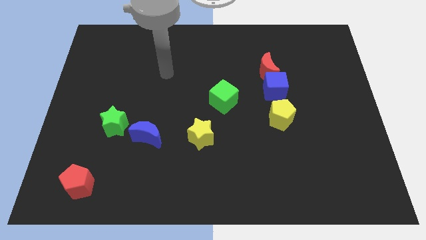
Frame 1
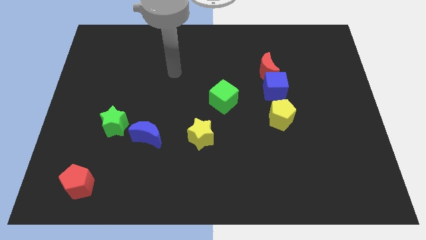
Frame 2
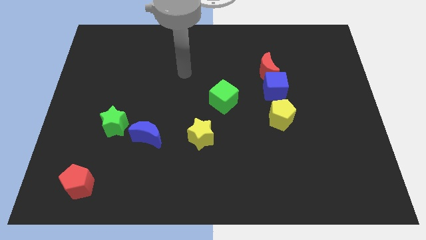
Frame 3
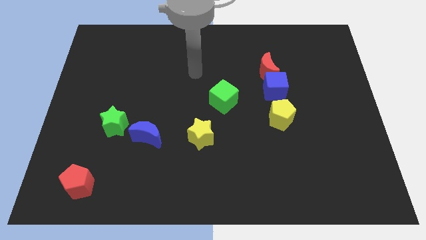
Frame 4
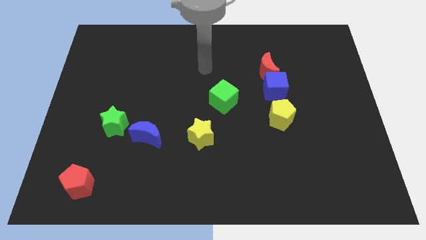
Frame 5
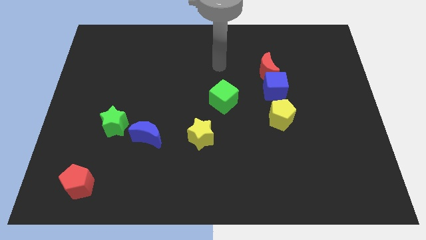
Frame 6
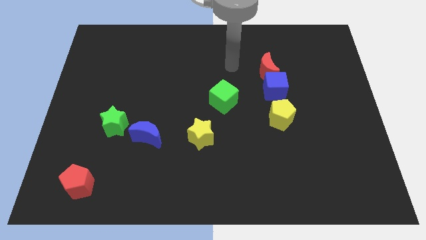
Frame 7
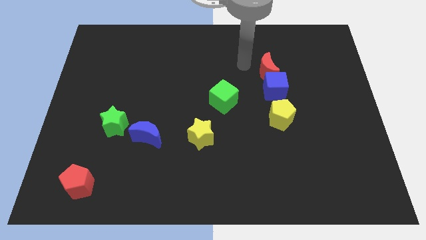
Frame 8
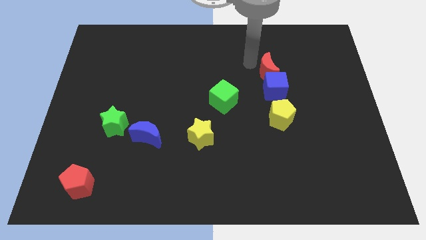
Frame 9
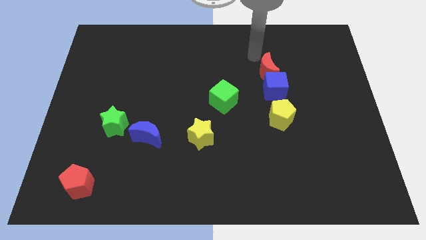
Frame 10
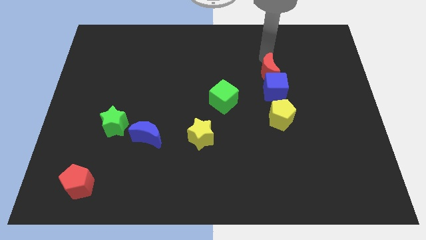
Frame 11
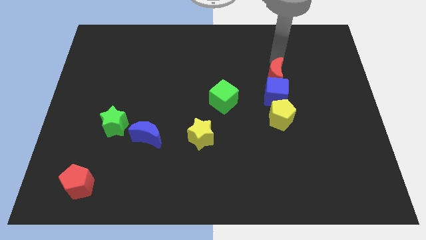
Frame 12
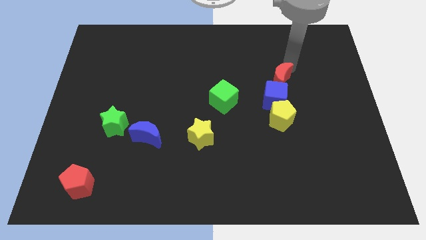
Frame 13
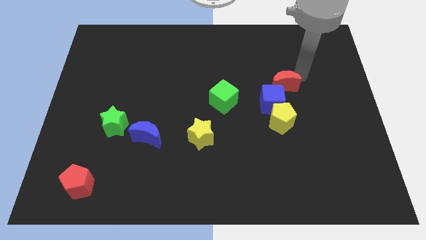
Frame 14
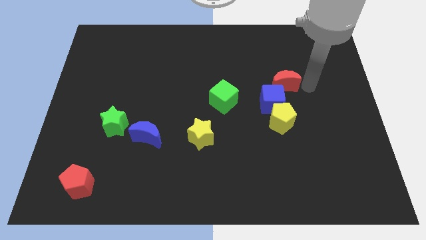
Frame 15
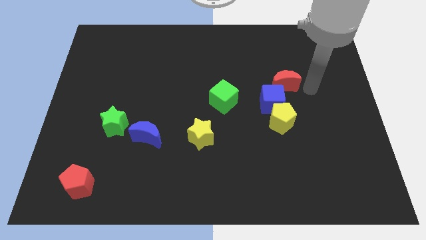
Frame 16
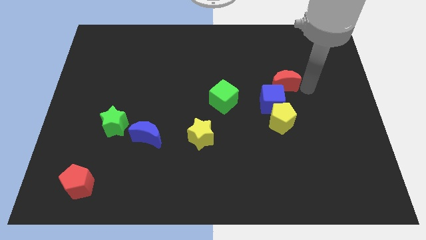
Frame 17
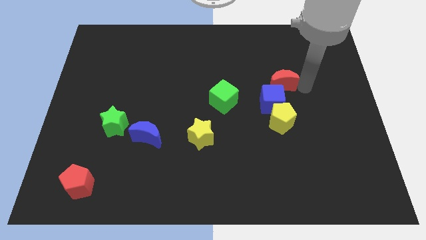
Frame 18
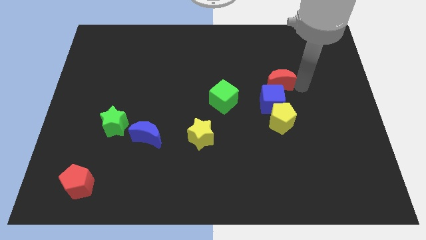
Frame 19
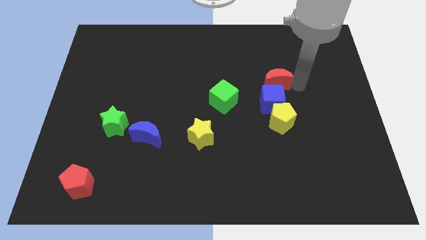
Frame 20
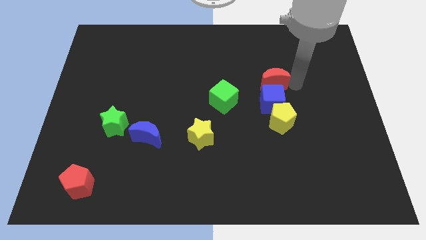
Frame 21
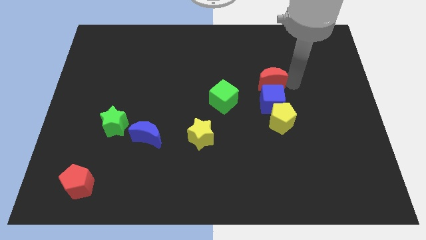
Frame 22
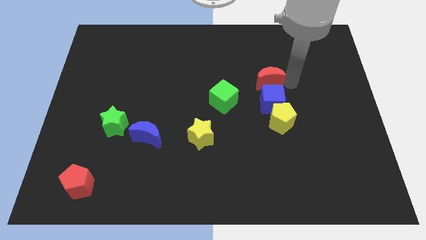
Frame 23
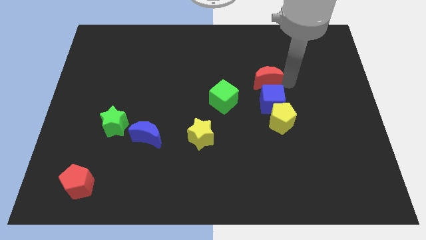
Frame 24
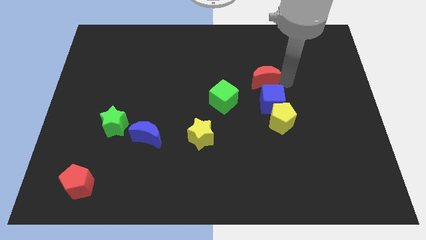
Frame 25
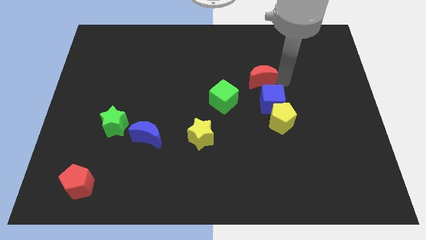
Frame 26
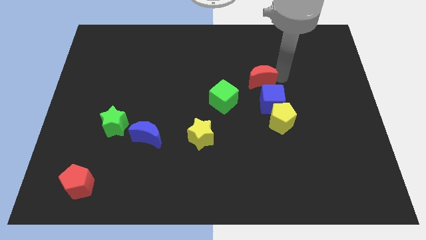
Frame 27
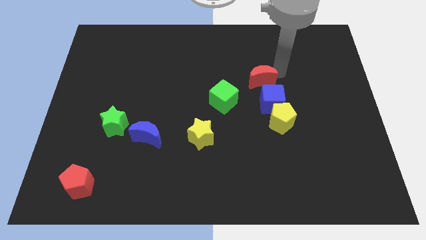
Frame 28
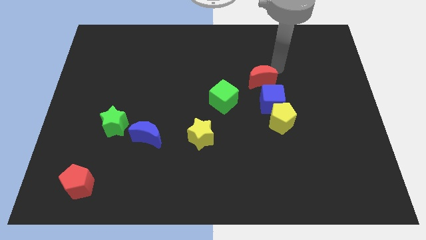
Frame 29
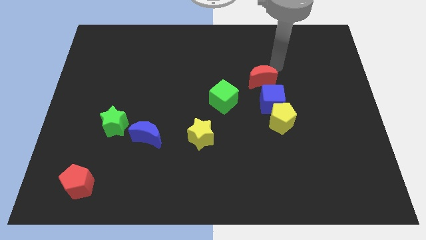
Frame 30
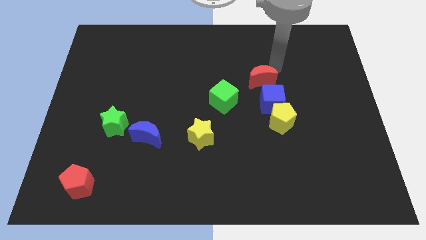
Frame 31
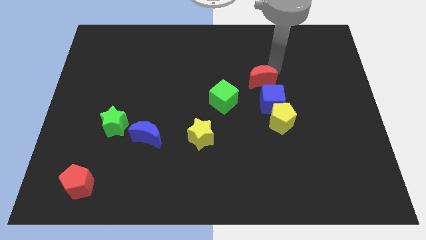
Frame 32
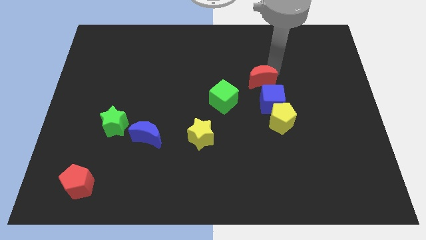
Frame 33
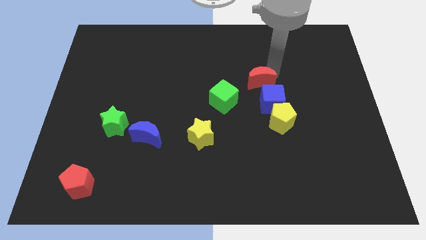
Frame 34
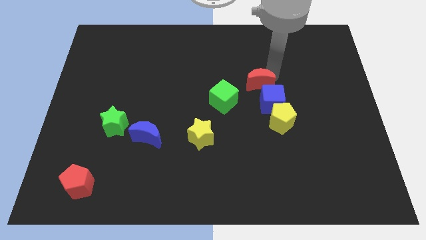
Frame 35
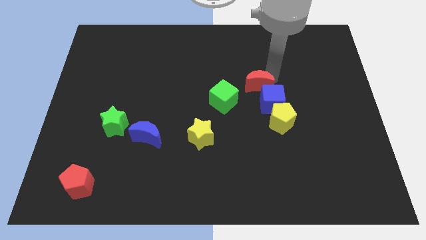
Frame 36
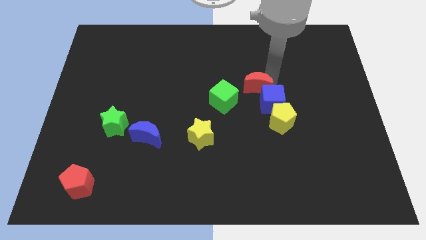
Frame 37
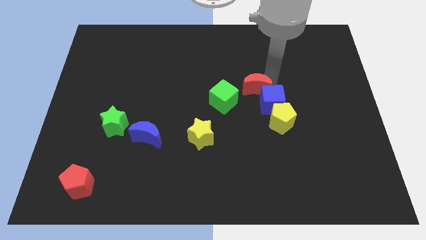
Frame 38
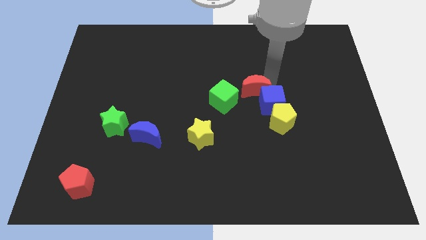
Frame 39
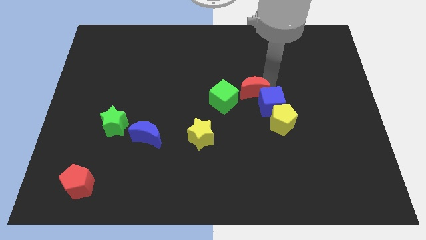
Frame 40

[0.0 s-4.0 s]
push the red moon somewhat downwards and left diagonally

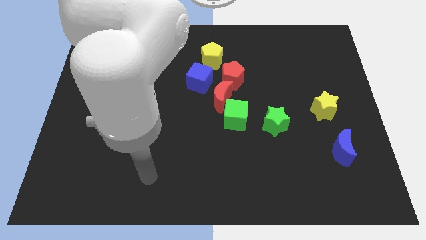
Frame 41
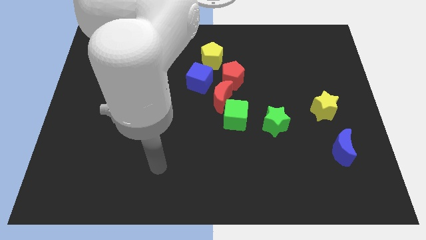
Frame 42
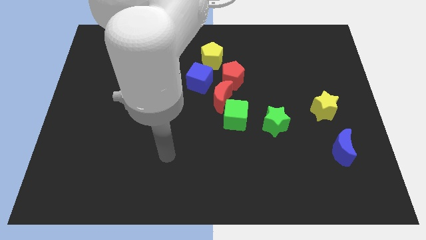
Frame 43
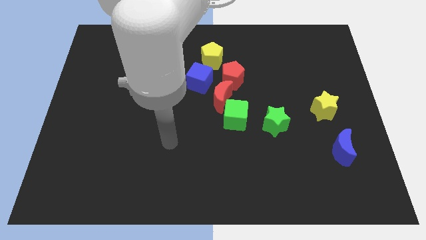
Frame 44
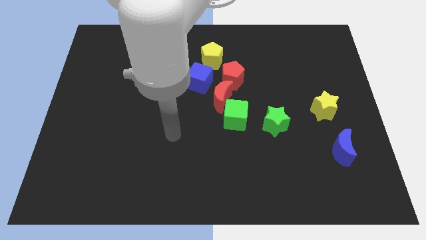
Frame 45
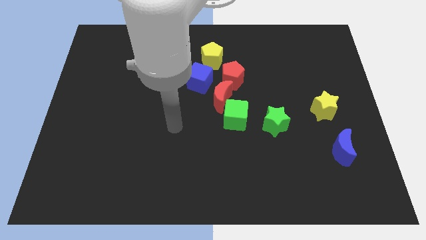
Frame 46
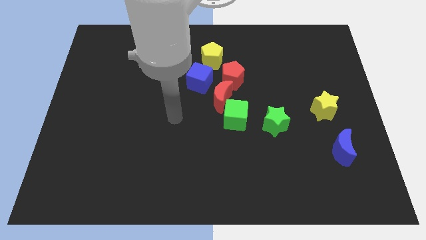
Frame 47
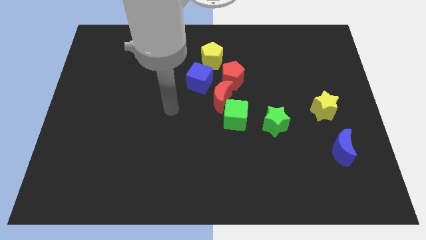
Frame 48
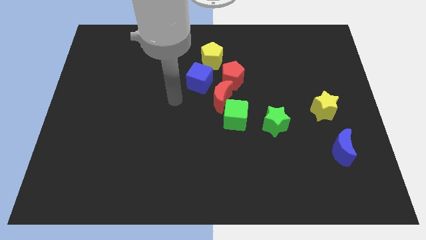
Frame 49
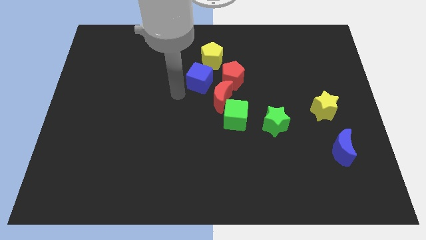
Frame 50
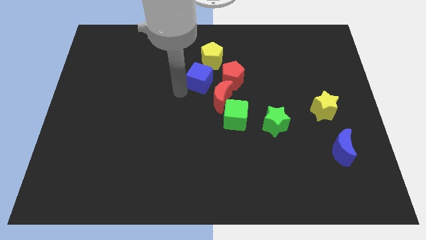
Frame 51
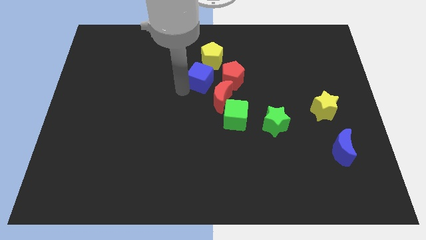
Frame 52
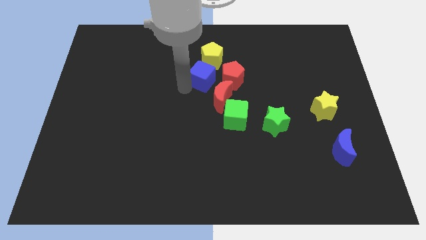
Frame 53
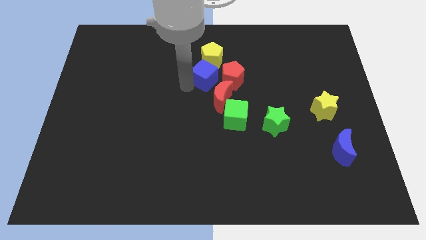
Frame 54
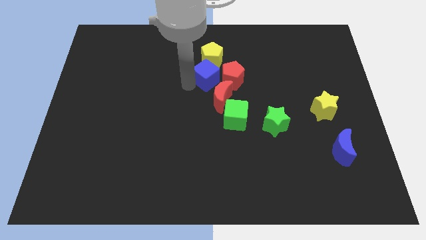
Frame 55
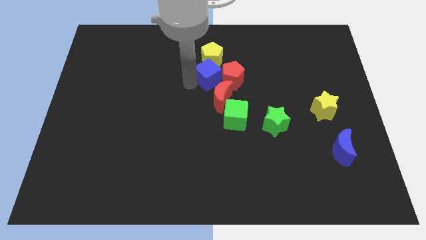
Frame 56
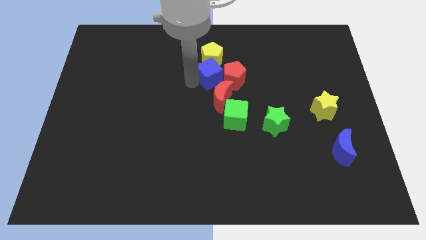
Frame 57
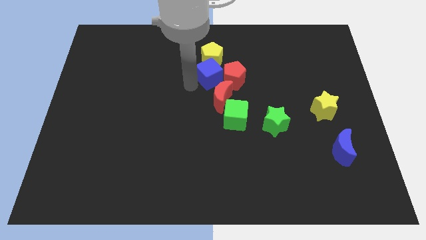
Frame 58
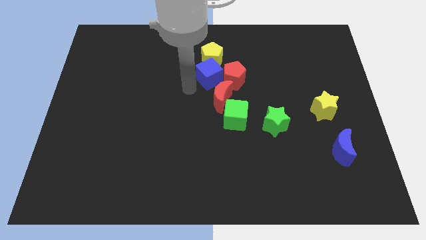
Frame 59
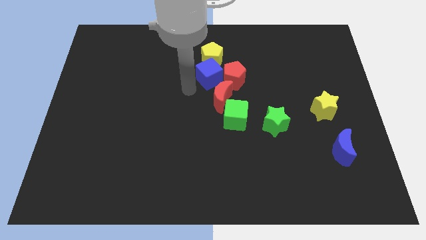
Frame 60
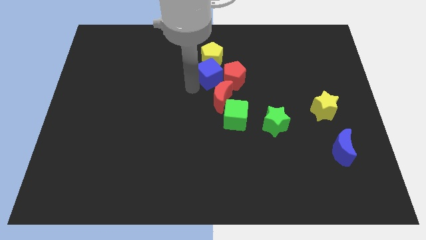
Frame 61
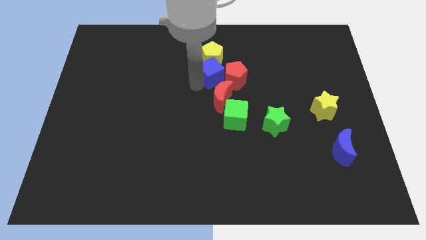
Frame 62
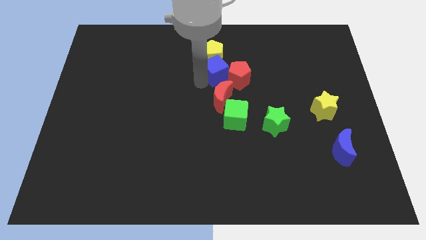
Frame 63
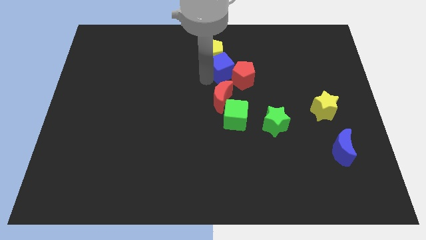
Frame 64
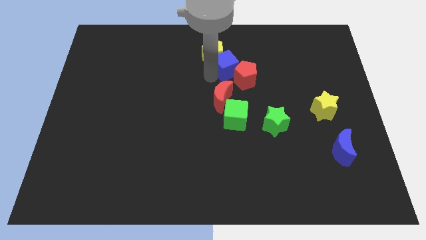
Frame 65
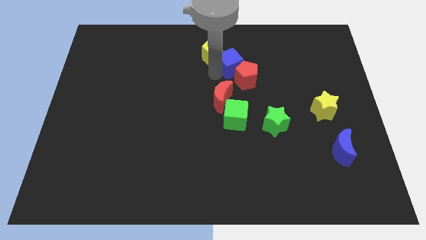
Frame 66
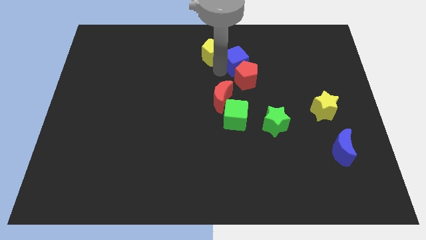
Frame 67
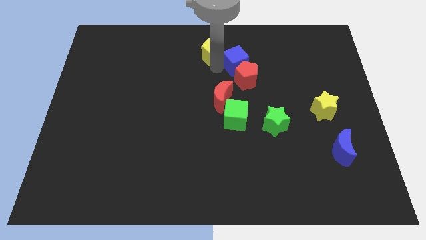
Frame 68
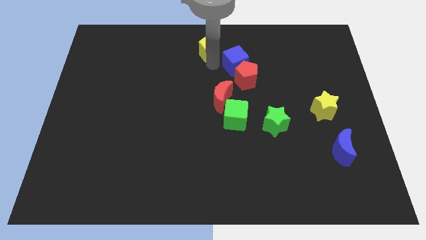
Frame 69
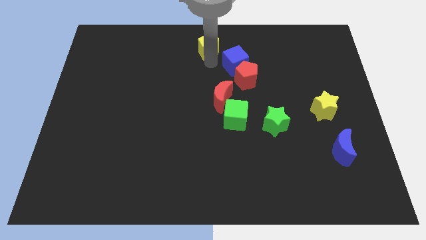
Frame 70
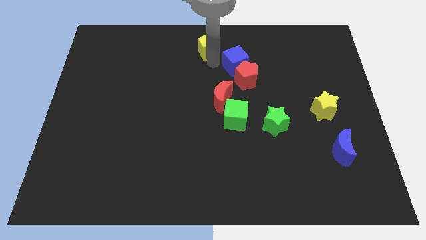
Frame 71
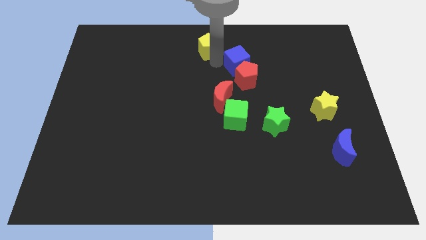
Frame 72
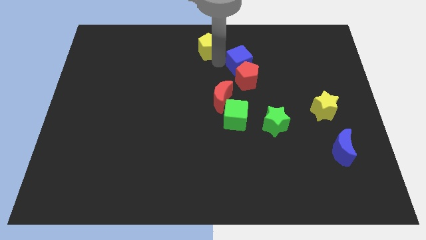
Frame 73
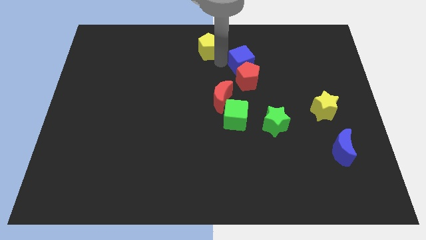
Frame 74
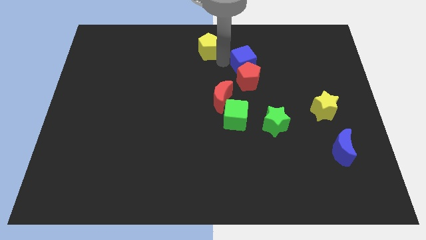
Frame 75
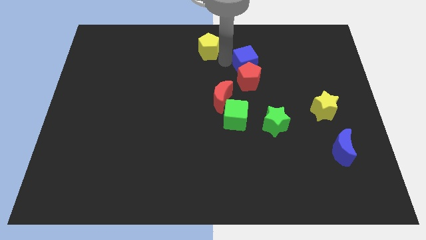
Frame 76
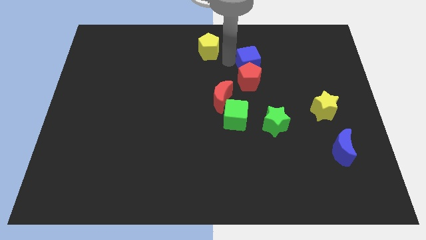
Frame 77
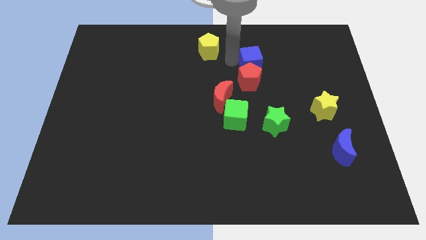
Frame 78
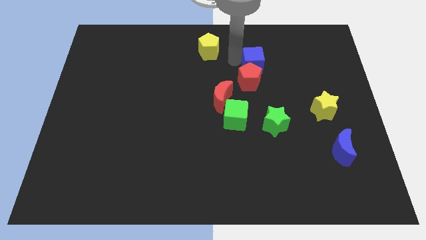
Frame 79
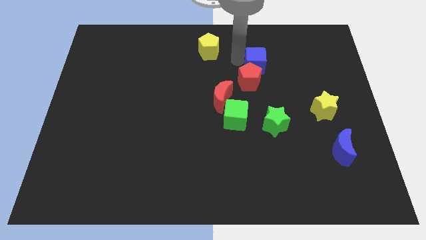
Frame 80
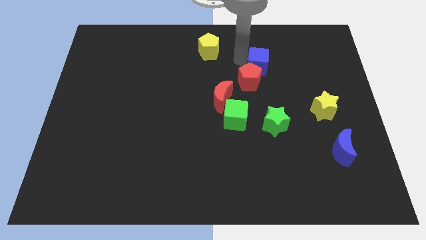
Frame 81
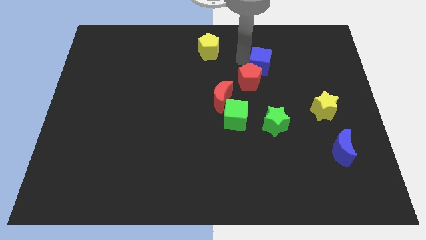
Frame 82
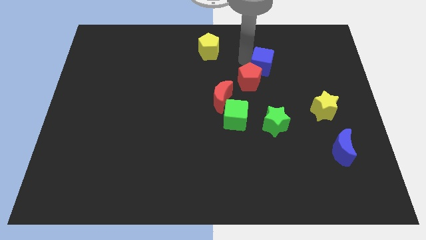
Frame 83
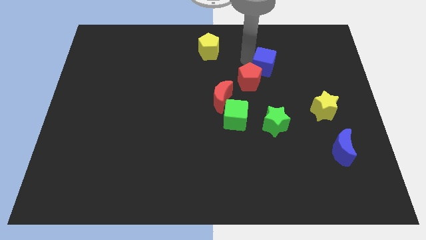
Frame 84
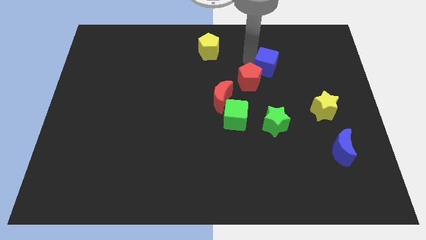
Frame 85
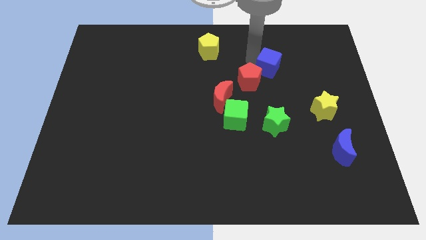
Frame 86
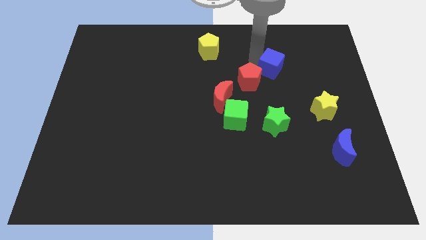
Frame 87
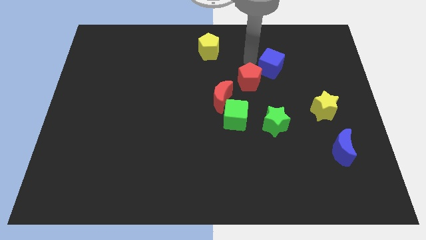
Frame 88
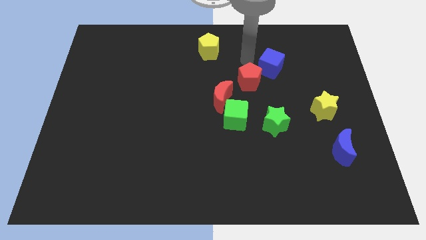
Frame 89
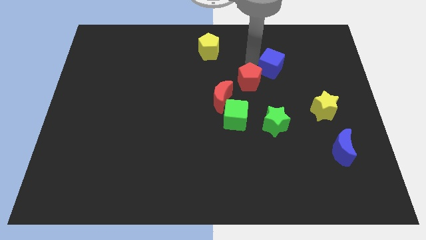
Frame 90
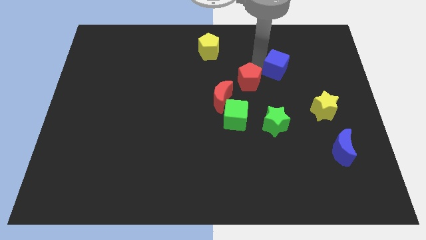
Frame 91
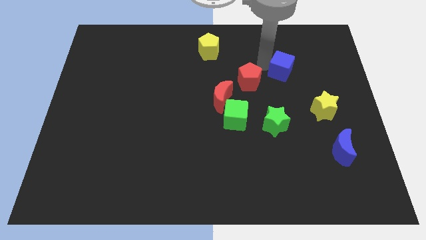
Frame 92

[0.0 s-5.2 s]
push the blue cube to the right
